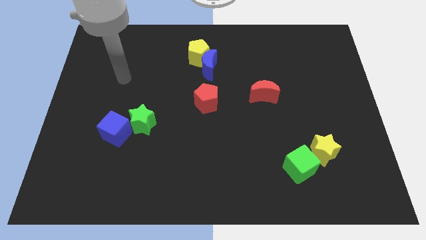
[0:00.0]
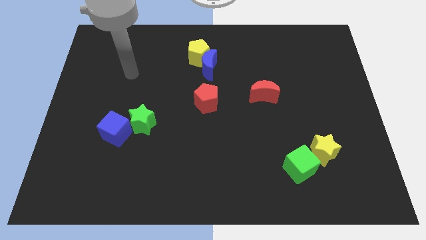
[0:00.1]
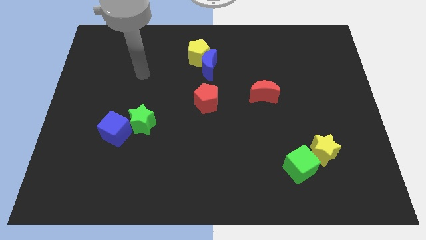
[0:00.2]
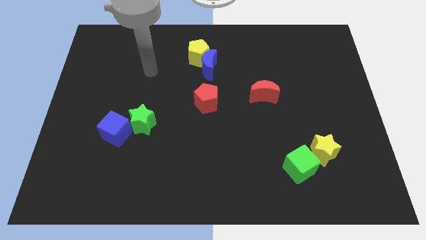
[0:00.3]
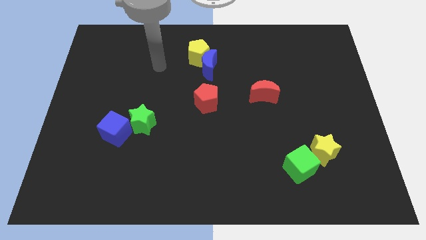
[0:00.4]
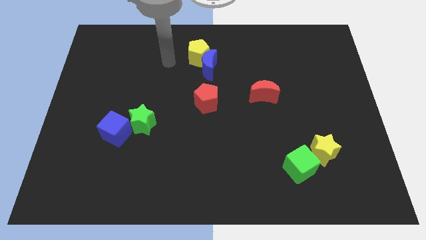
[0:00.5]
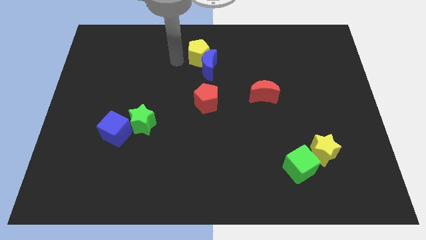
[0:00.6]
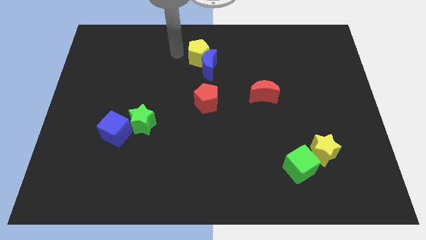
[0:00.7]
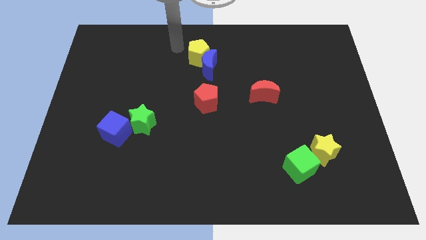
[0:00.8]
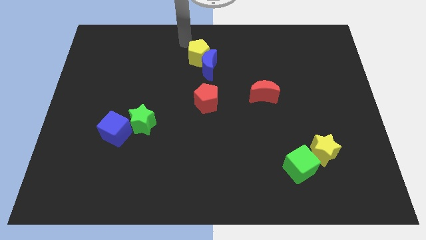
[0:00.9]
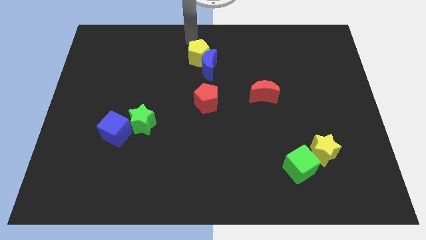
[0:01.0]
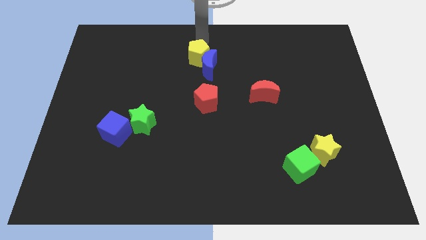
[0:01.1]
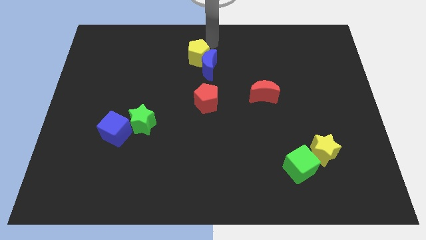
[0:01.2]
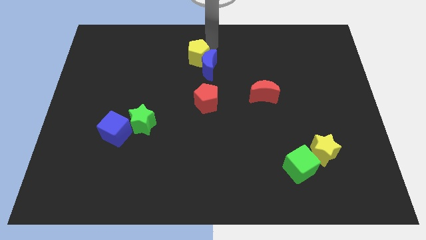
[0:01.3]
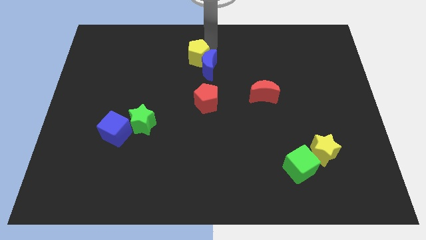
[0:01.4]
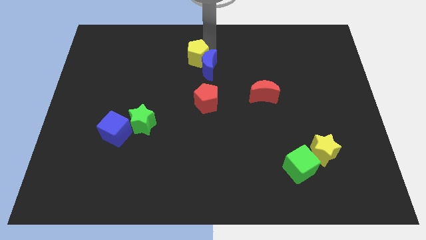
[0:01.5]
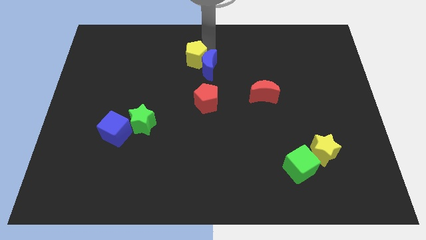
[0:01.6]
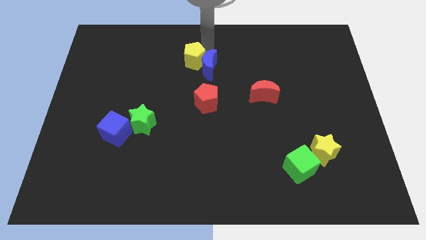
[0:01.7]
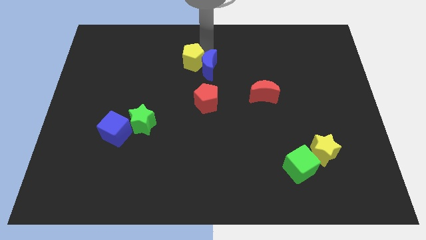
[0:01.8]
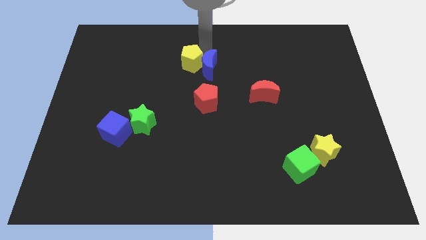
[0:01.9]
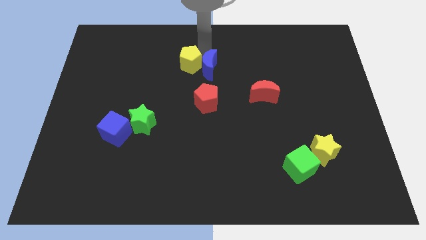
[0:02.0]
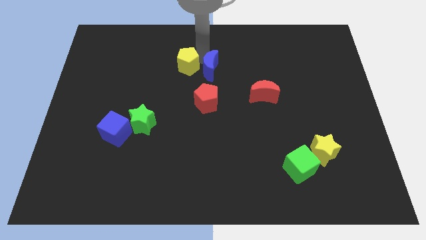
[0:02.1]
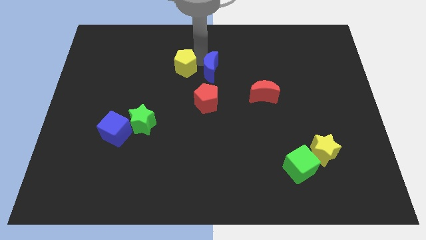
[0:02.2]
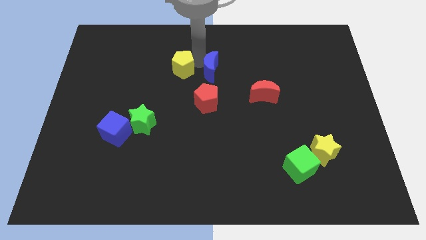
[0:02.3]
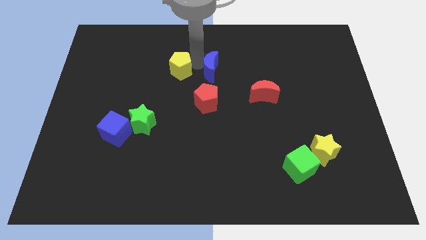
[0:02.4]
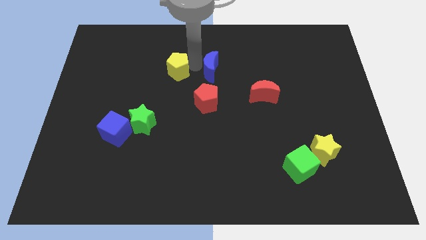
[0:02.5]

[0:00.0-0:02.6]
move the yellow pentagon a bit down and to the left diagonally

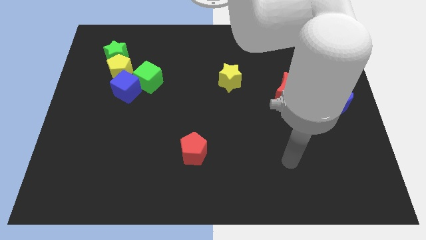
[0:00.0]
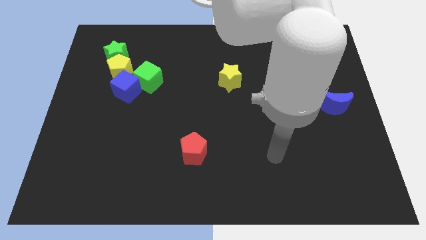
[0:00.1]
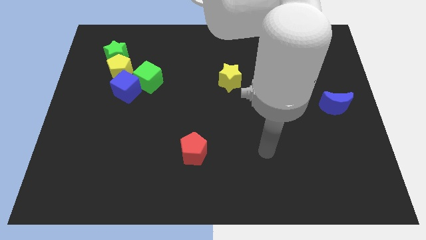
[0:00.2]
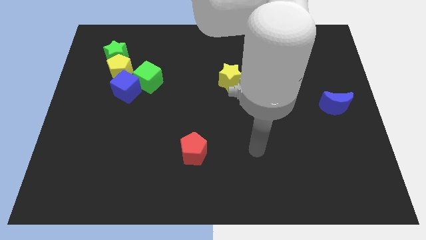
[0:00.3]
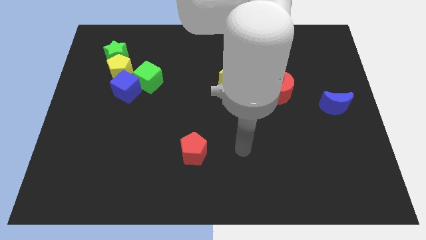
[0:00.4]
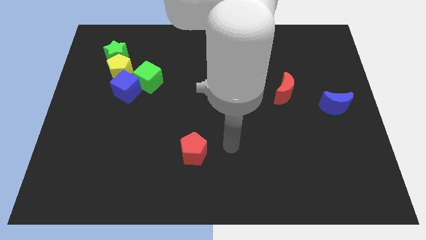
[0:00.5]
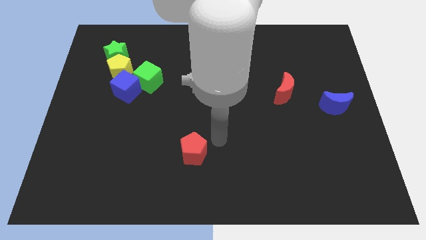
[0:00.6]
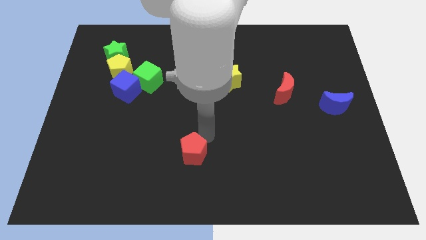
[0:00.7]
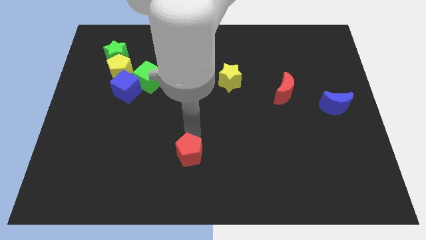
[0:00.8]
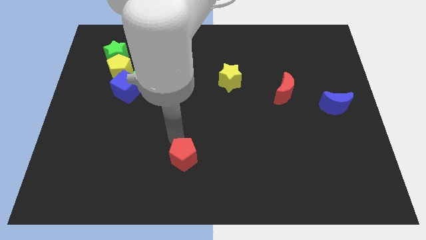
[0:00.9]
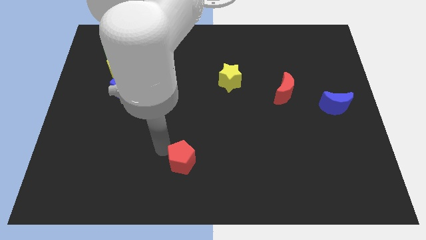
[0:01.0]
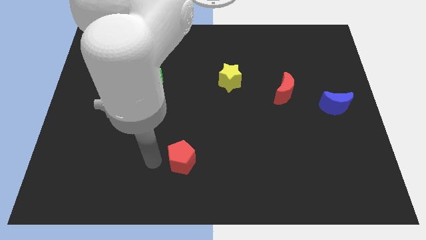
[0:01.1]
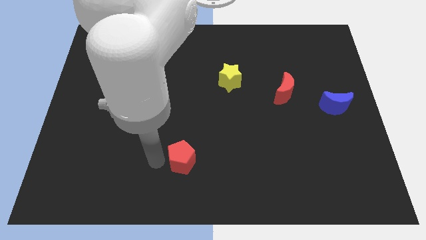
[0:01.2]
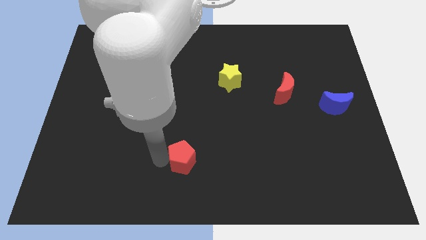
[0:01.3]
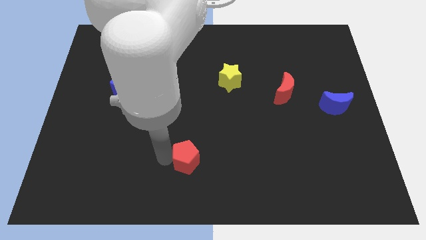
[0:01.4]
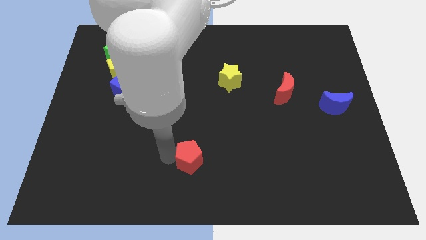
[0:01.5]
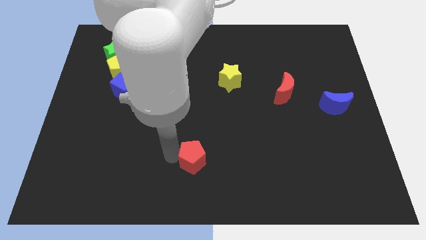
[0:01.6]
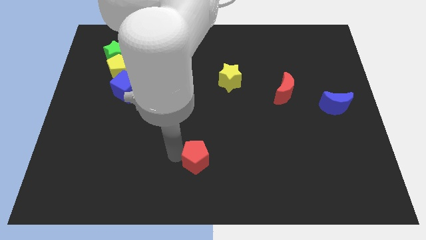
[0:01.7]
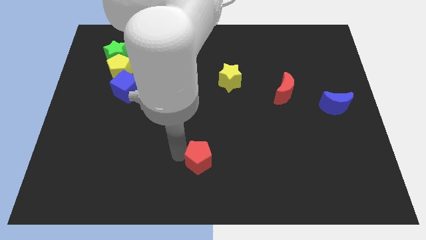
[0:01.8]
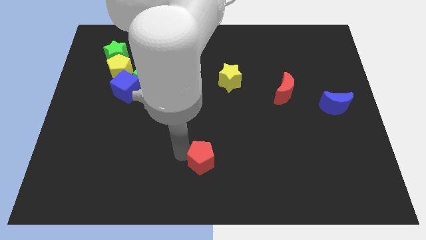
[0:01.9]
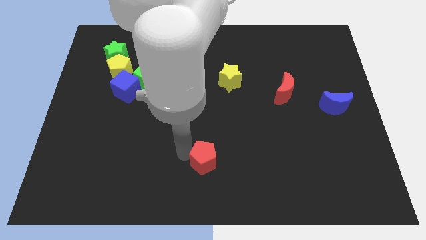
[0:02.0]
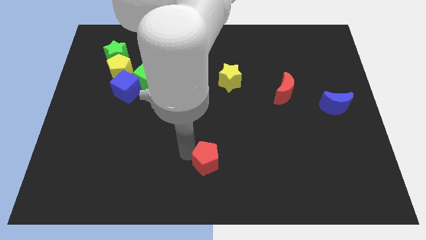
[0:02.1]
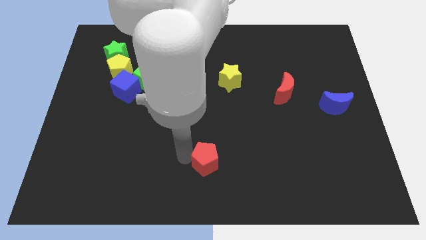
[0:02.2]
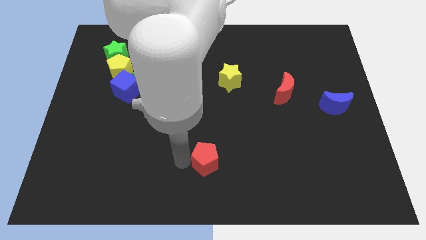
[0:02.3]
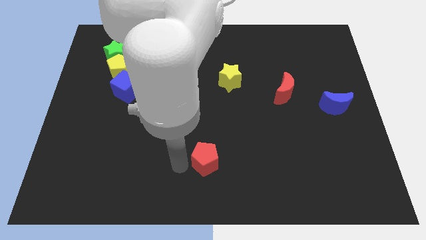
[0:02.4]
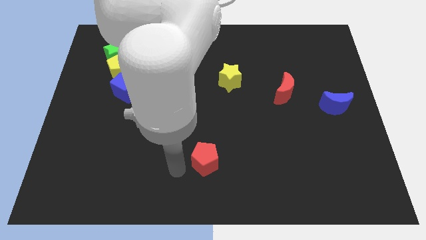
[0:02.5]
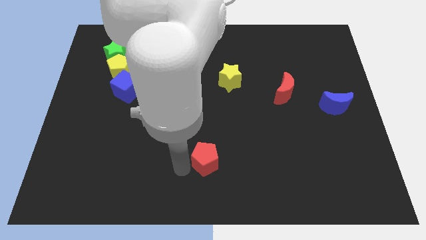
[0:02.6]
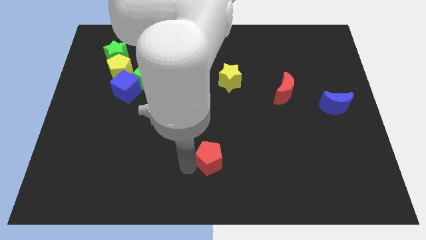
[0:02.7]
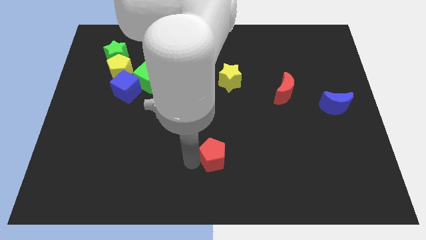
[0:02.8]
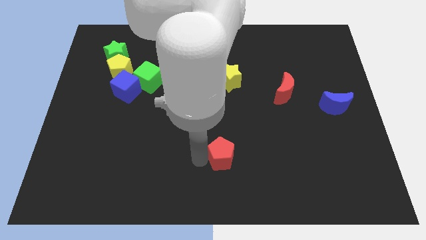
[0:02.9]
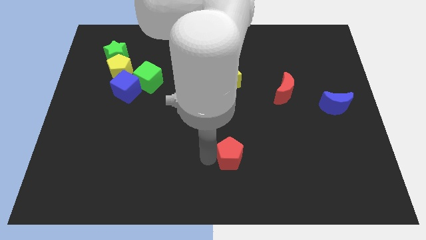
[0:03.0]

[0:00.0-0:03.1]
slightly slide the red pentagon to the right

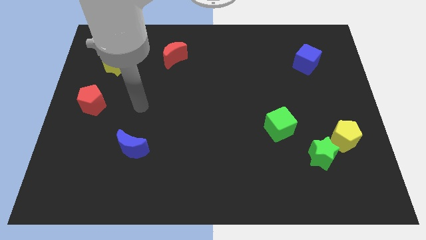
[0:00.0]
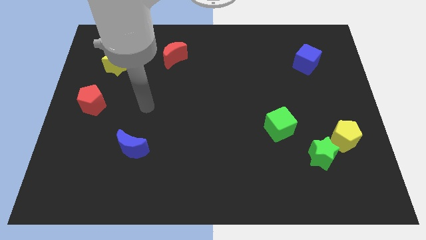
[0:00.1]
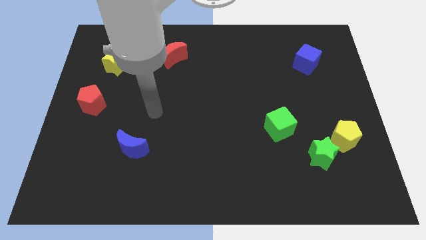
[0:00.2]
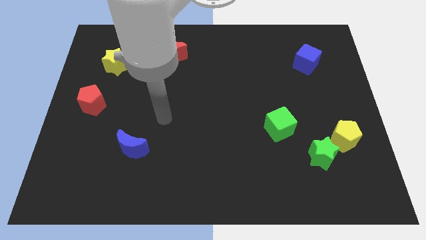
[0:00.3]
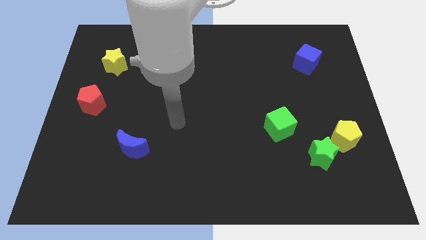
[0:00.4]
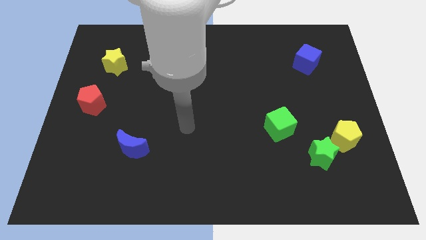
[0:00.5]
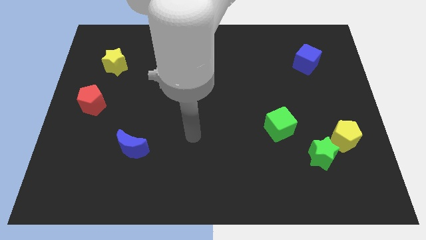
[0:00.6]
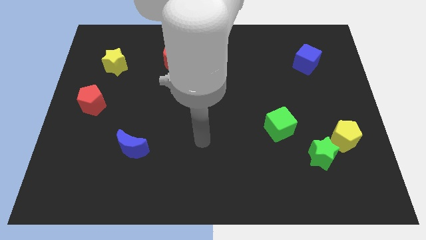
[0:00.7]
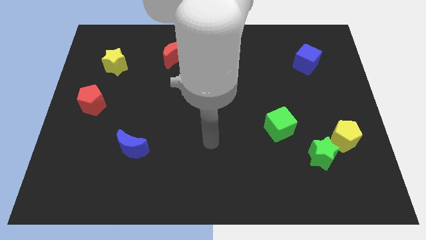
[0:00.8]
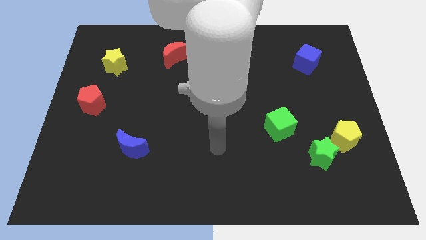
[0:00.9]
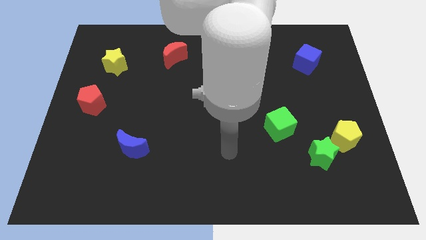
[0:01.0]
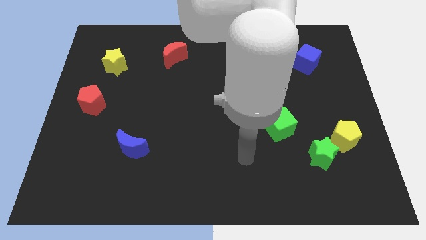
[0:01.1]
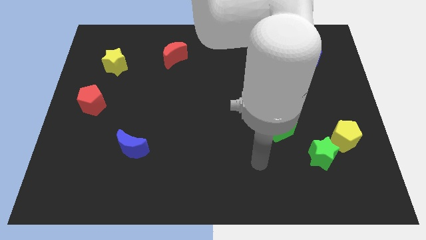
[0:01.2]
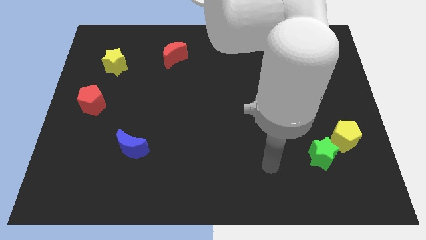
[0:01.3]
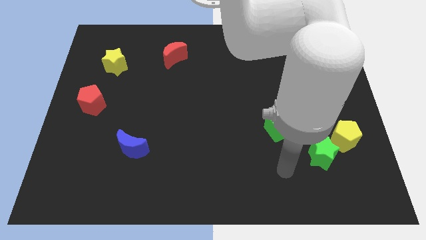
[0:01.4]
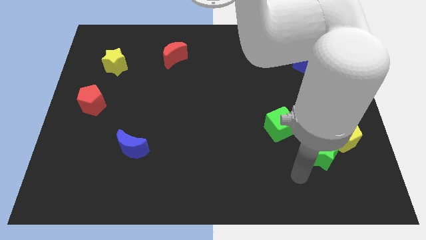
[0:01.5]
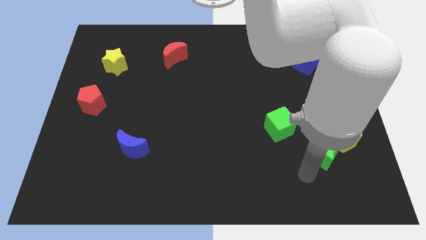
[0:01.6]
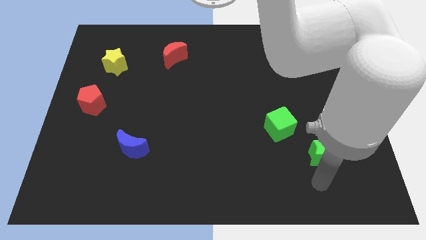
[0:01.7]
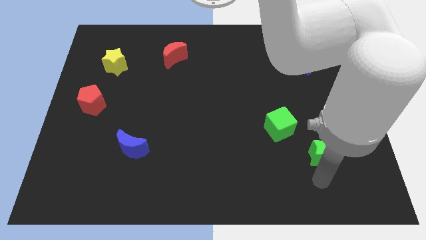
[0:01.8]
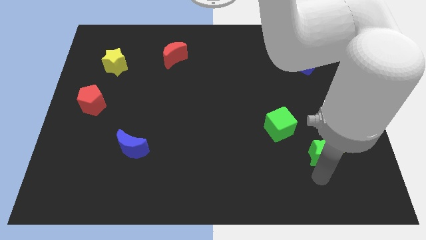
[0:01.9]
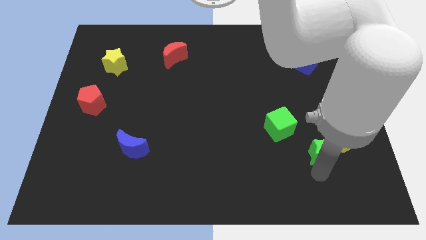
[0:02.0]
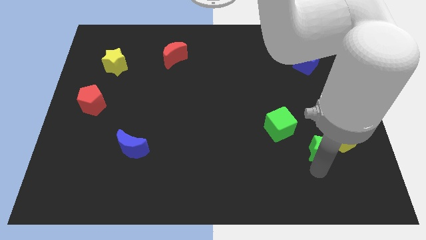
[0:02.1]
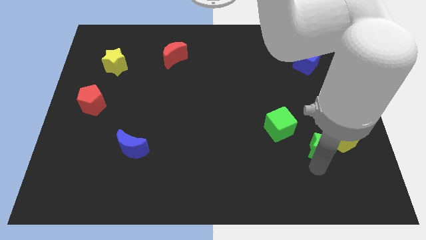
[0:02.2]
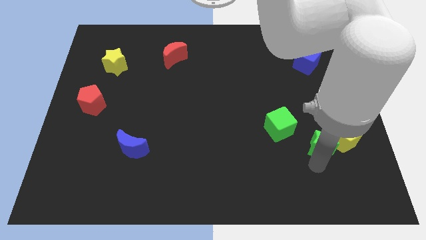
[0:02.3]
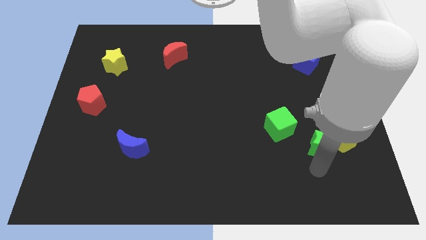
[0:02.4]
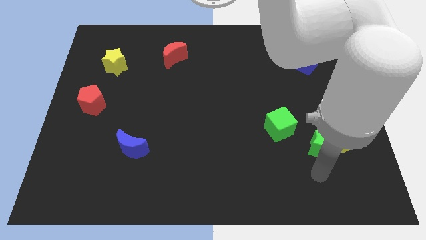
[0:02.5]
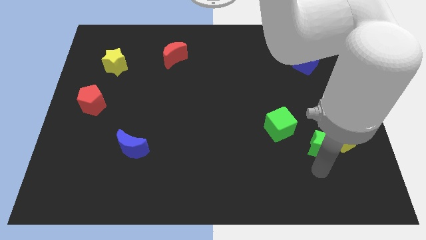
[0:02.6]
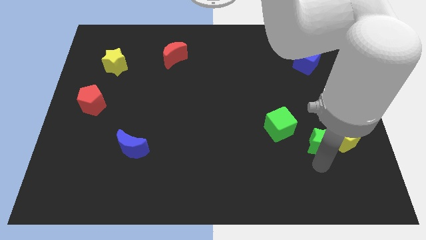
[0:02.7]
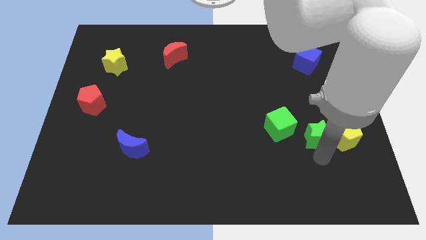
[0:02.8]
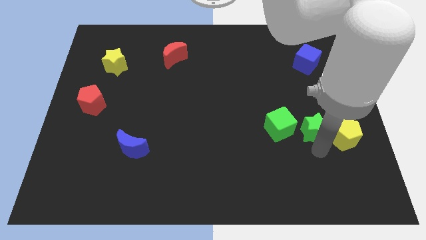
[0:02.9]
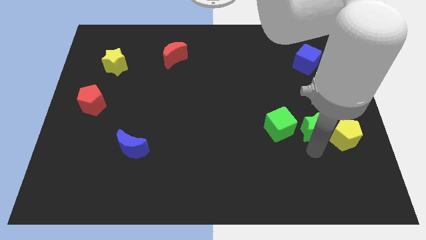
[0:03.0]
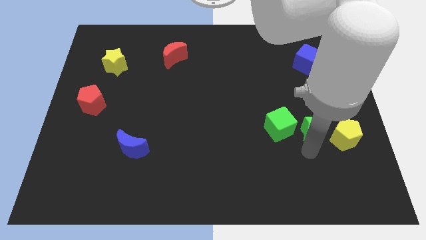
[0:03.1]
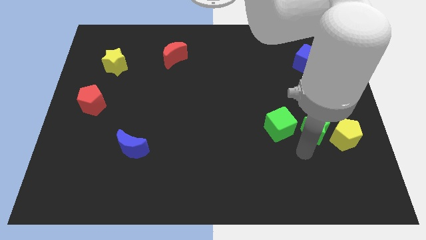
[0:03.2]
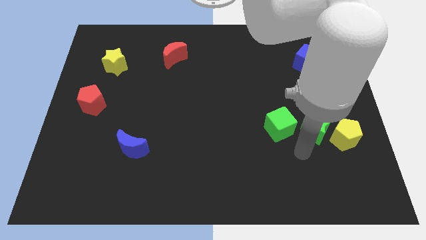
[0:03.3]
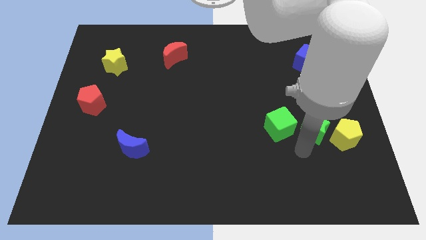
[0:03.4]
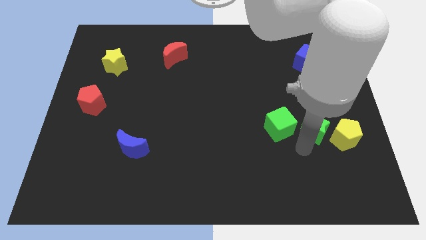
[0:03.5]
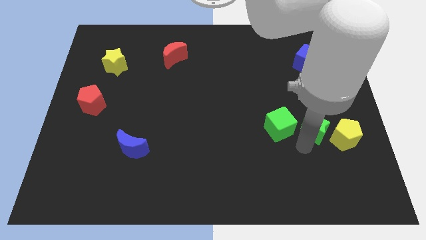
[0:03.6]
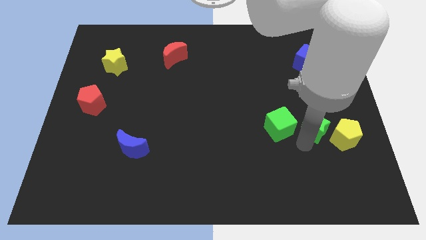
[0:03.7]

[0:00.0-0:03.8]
slightly push the green star up
